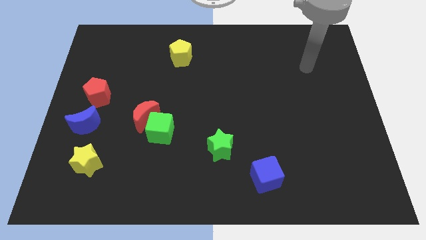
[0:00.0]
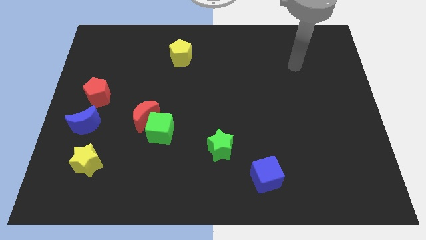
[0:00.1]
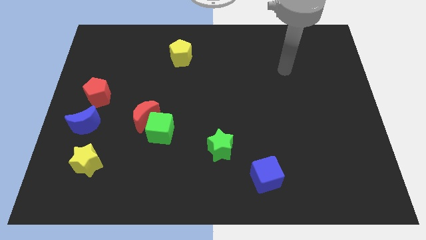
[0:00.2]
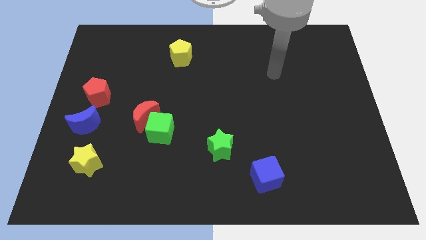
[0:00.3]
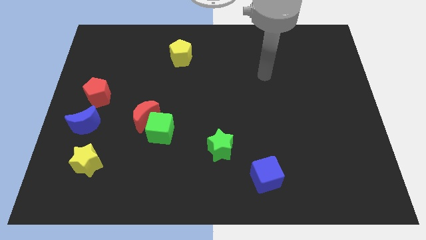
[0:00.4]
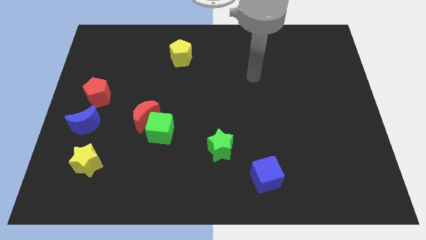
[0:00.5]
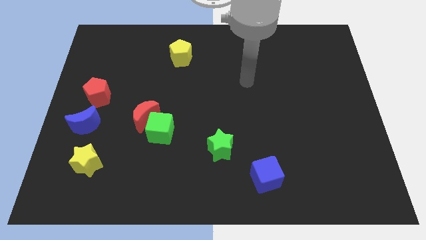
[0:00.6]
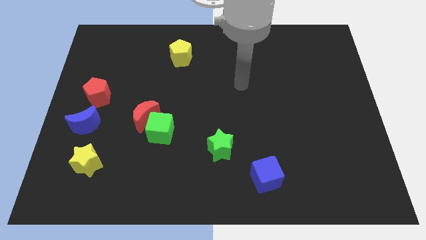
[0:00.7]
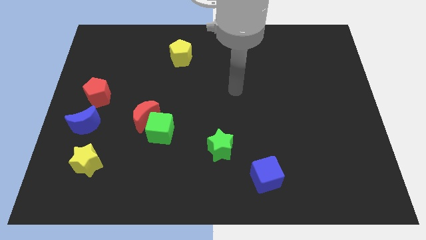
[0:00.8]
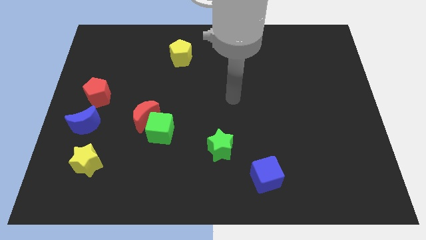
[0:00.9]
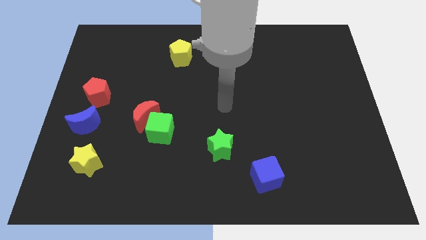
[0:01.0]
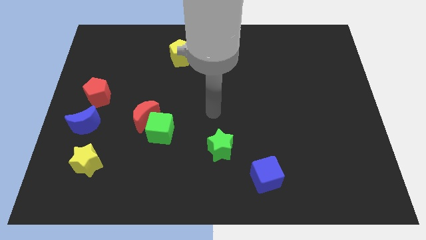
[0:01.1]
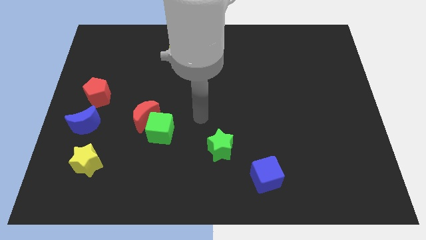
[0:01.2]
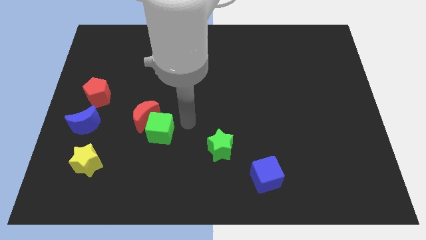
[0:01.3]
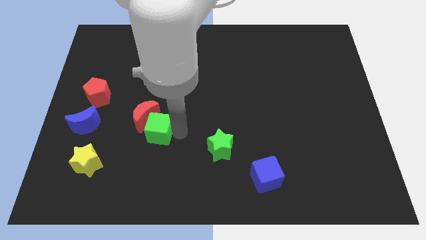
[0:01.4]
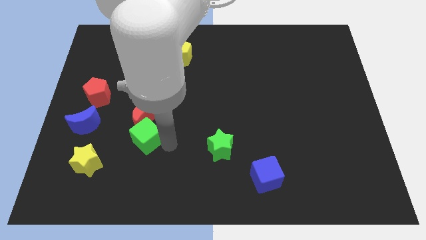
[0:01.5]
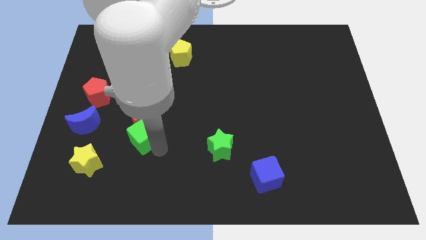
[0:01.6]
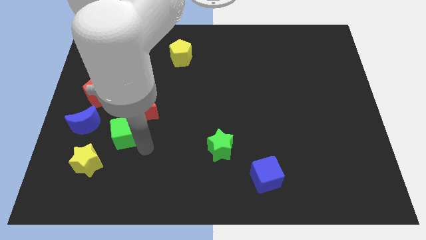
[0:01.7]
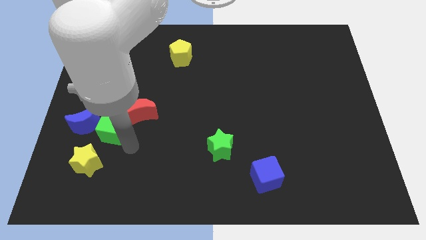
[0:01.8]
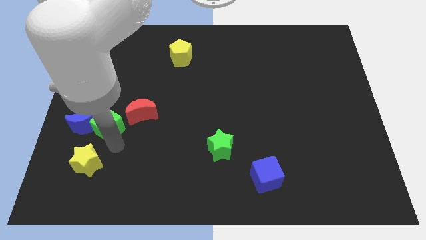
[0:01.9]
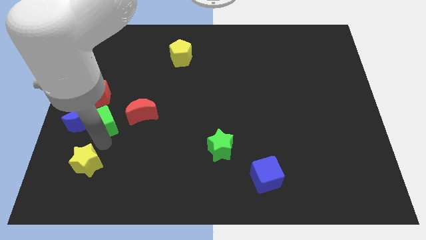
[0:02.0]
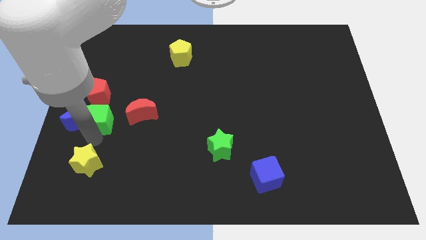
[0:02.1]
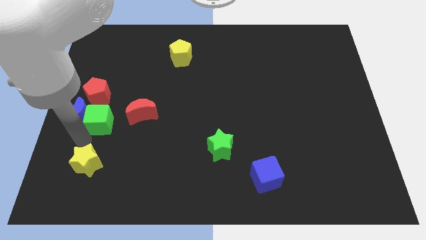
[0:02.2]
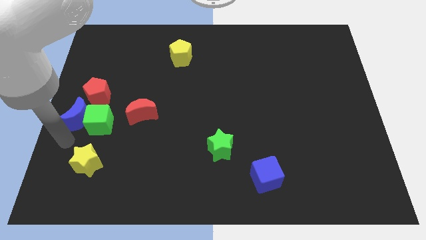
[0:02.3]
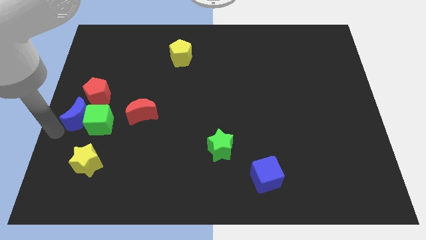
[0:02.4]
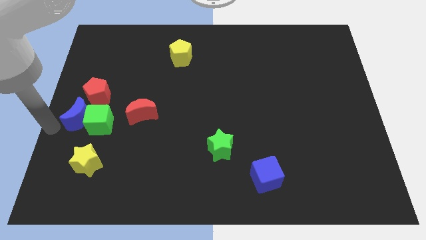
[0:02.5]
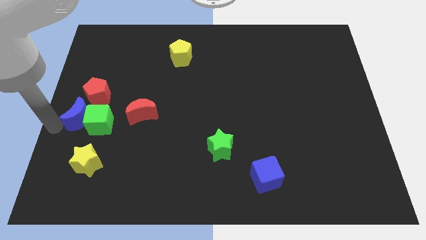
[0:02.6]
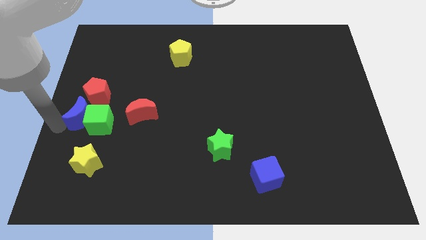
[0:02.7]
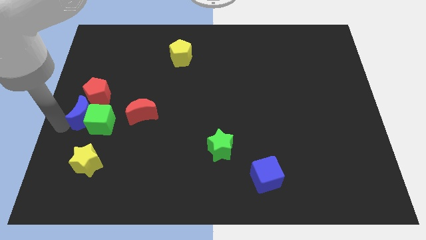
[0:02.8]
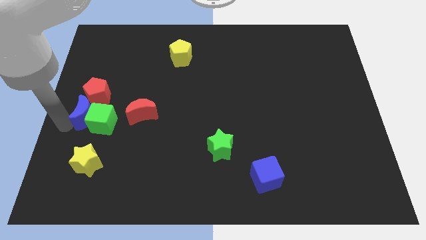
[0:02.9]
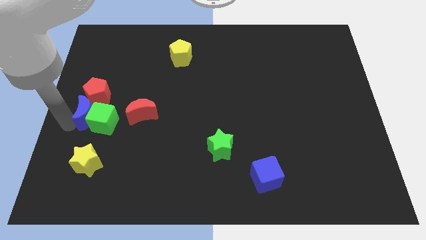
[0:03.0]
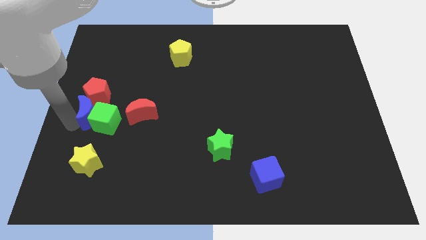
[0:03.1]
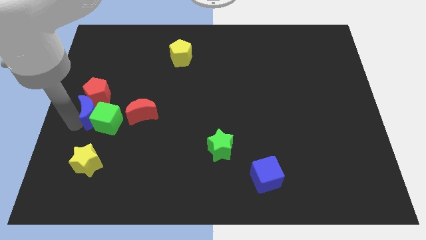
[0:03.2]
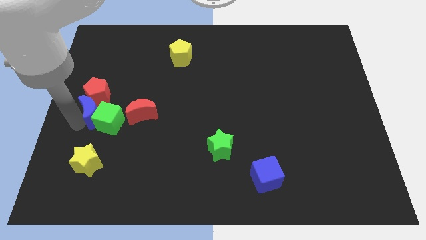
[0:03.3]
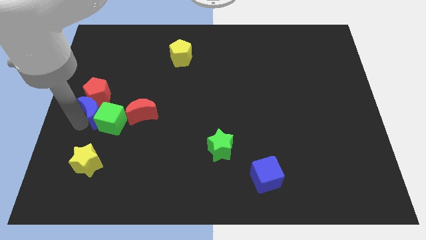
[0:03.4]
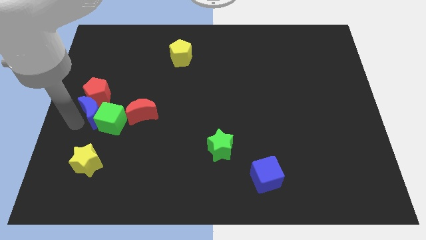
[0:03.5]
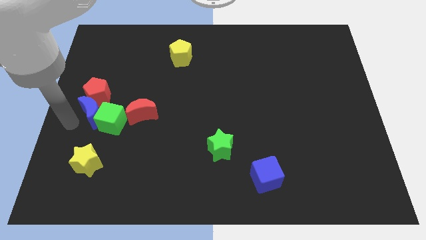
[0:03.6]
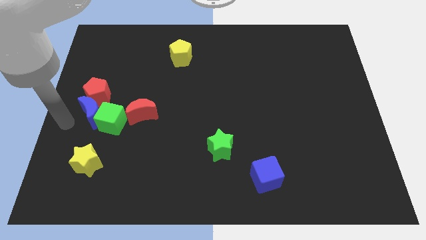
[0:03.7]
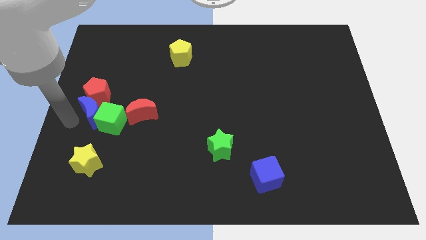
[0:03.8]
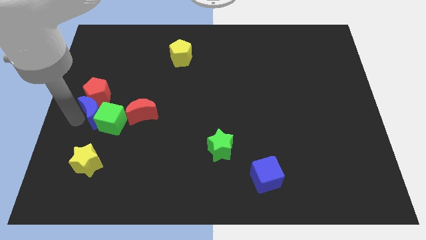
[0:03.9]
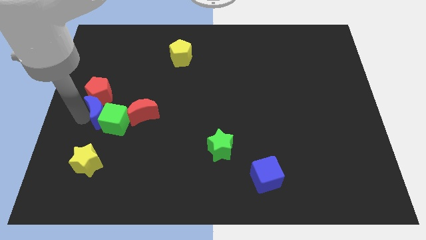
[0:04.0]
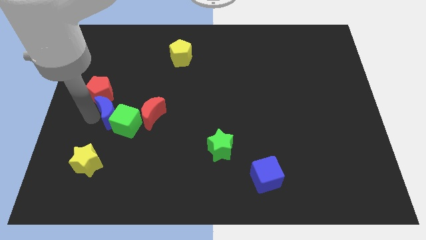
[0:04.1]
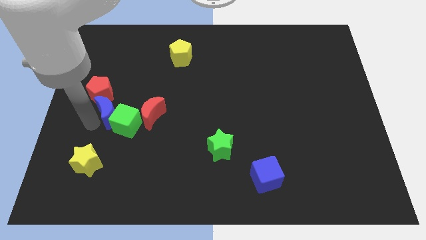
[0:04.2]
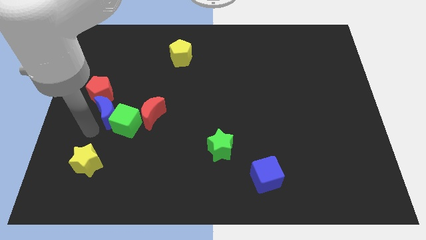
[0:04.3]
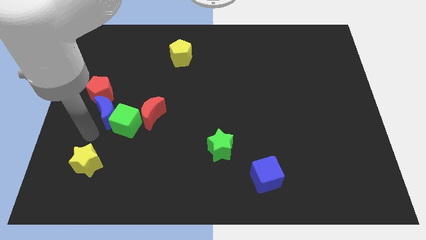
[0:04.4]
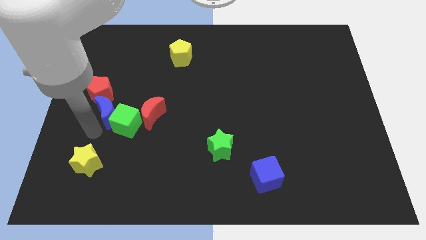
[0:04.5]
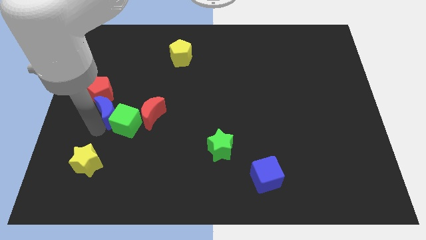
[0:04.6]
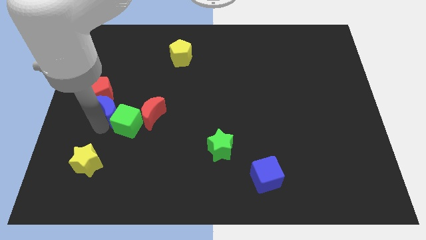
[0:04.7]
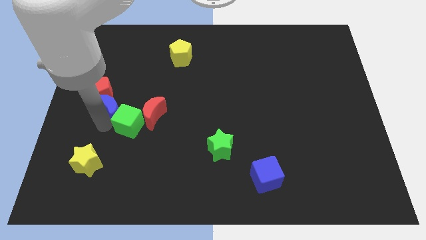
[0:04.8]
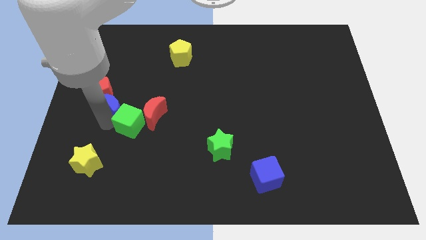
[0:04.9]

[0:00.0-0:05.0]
slide the blue moon slightly diagonally upwards and to the right

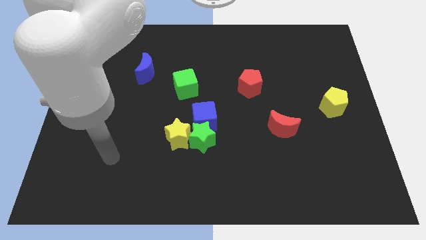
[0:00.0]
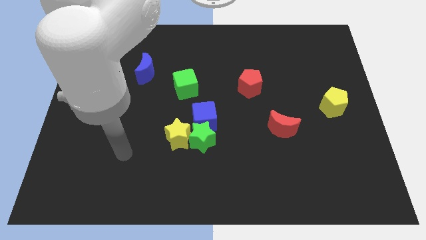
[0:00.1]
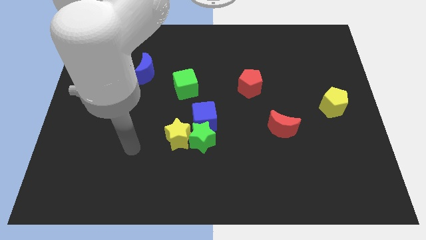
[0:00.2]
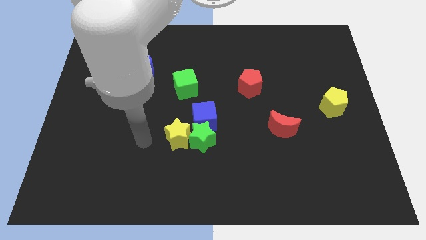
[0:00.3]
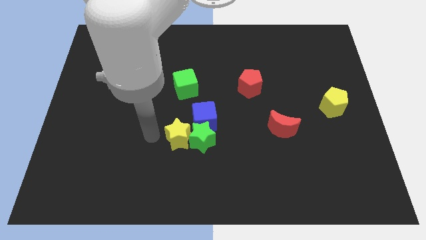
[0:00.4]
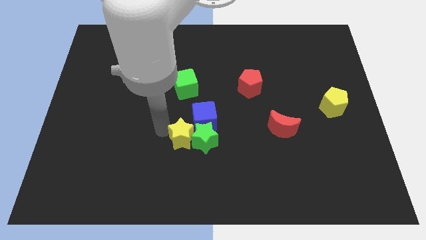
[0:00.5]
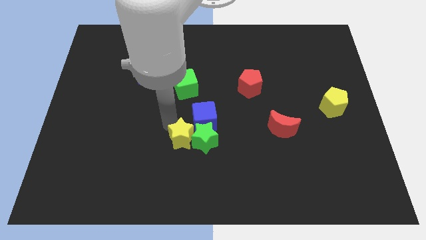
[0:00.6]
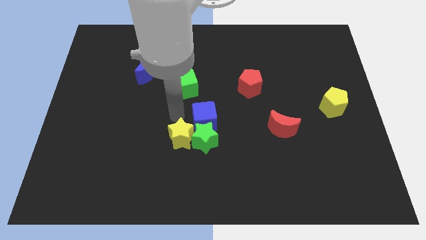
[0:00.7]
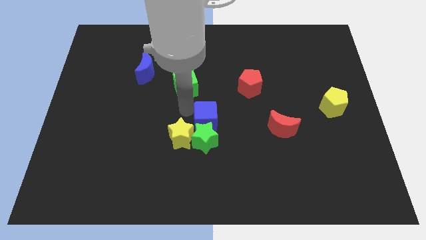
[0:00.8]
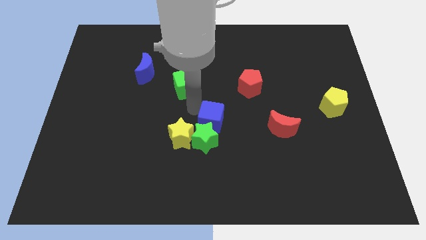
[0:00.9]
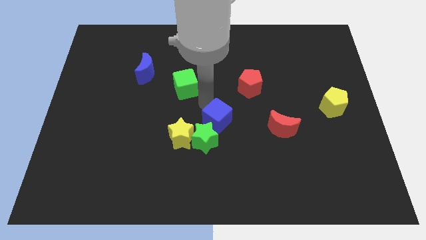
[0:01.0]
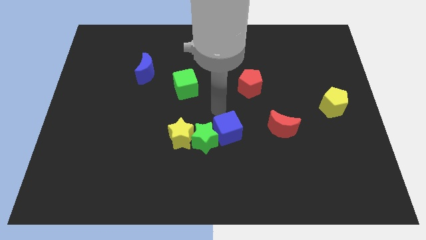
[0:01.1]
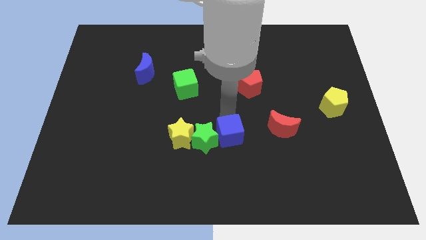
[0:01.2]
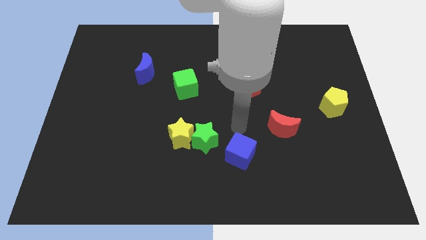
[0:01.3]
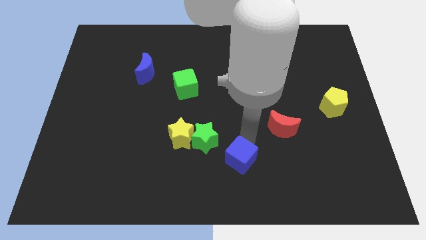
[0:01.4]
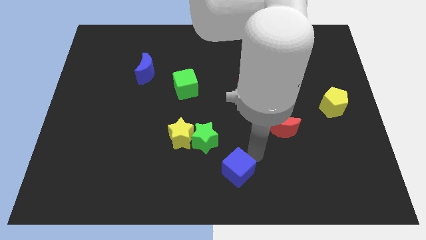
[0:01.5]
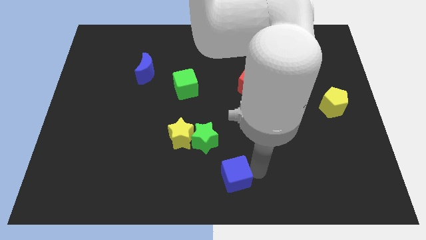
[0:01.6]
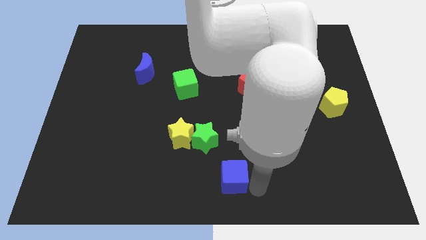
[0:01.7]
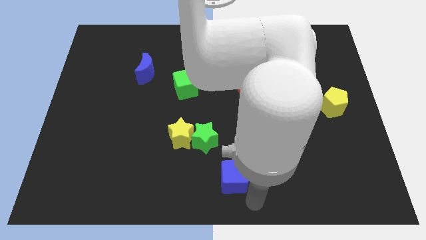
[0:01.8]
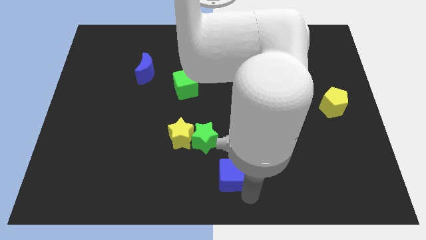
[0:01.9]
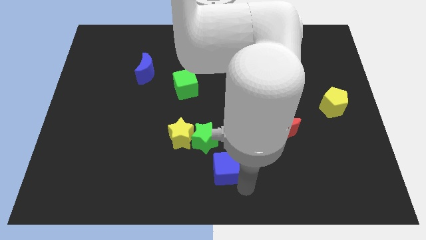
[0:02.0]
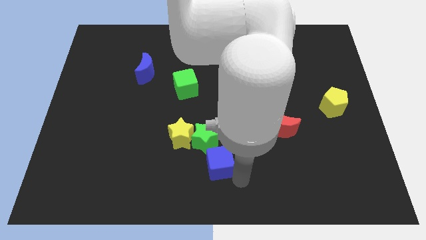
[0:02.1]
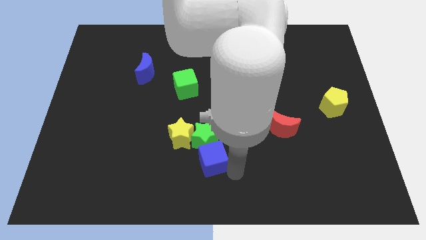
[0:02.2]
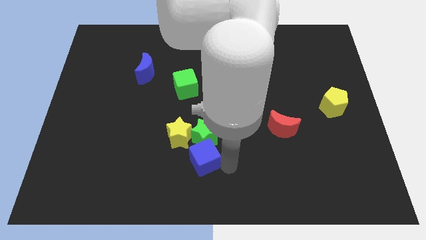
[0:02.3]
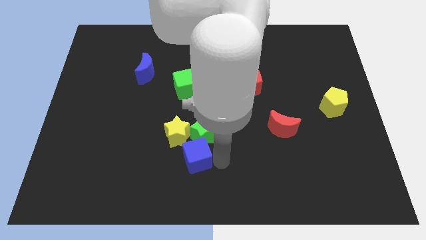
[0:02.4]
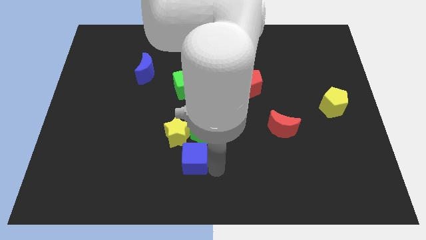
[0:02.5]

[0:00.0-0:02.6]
slide the blue cube downwards and left a little

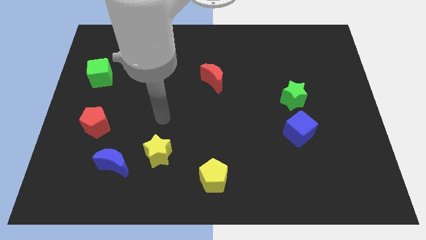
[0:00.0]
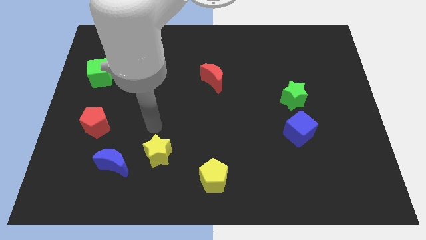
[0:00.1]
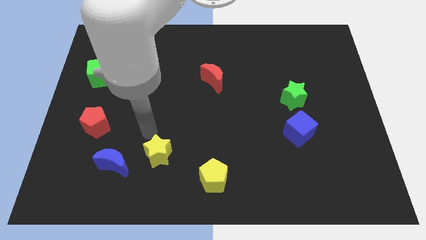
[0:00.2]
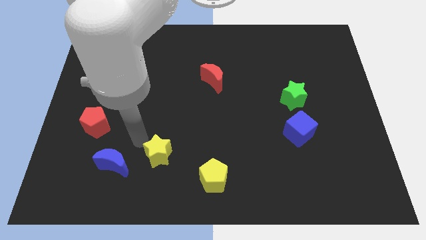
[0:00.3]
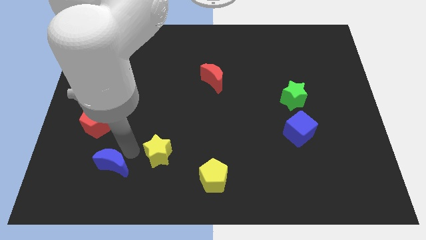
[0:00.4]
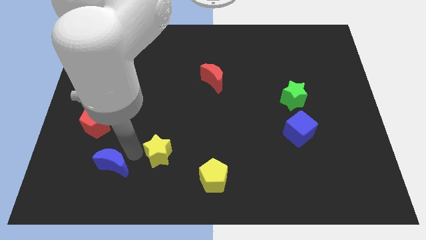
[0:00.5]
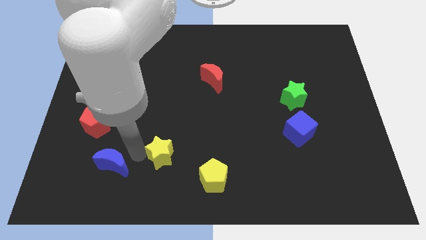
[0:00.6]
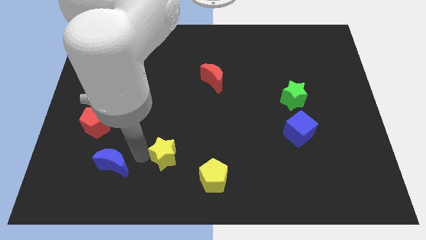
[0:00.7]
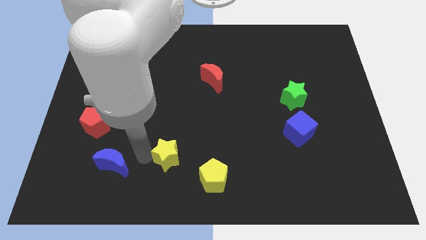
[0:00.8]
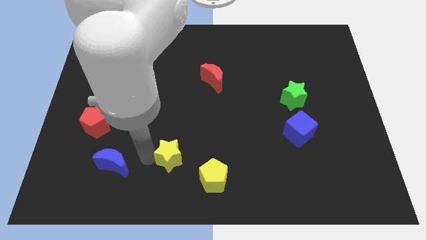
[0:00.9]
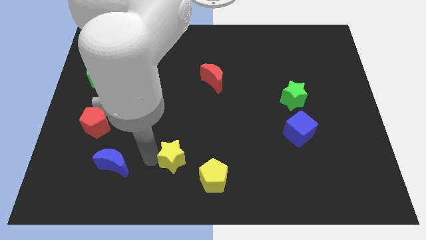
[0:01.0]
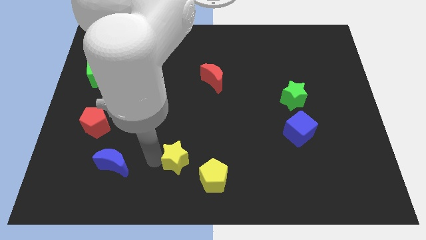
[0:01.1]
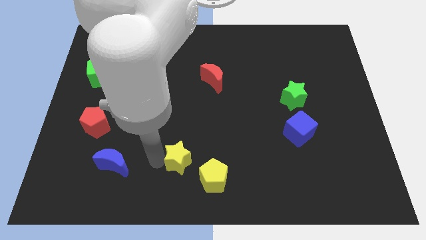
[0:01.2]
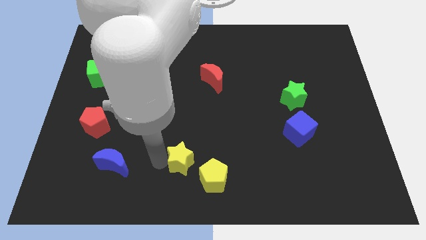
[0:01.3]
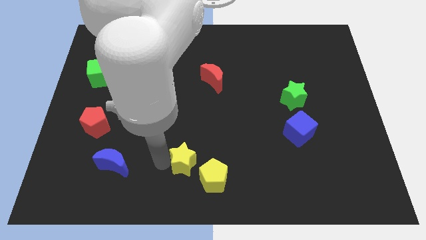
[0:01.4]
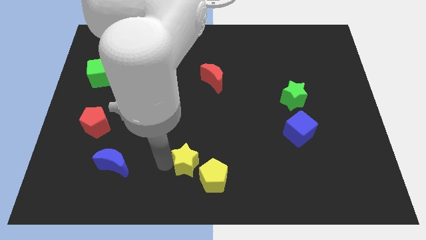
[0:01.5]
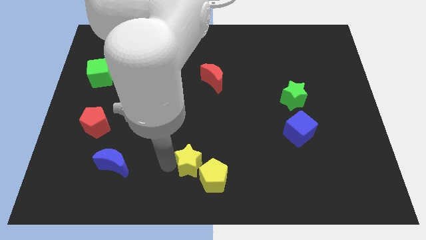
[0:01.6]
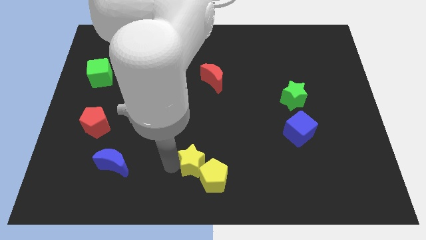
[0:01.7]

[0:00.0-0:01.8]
slide the yellow star a little right
